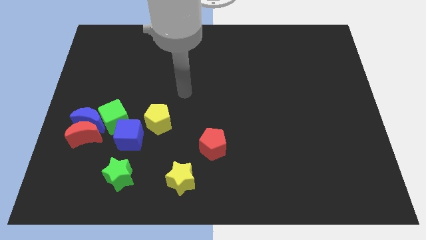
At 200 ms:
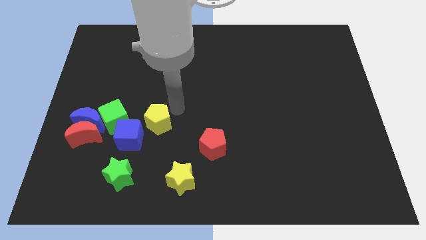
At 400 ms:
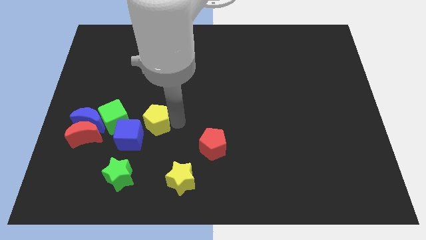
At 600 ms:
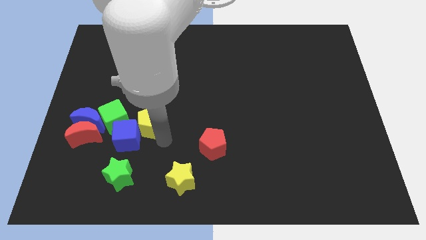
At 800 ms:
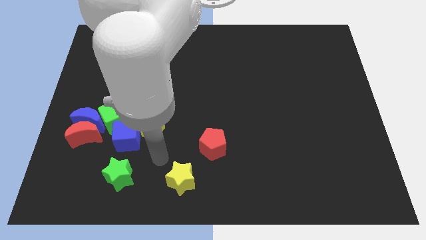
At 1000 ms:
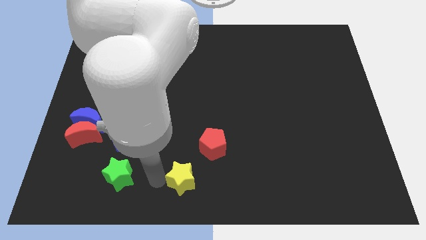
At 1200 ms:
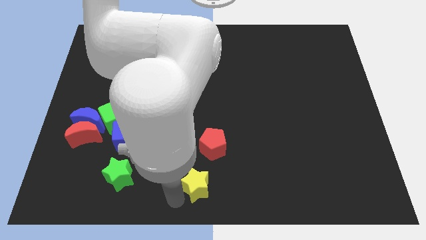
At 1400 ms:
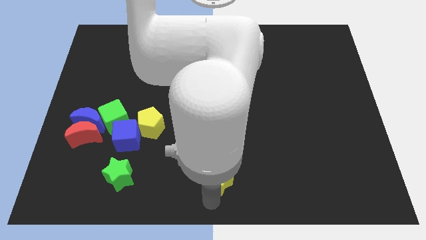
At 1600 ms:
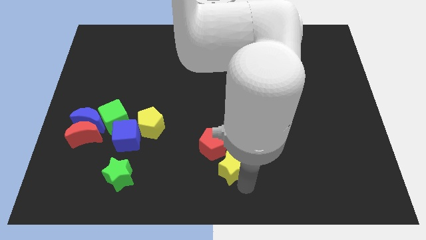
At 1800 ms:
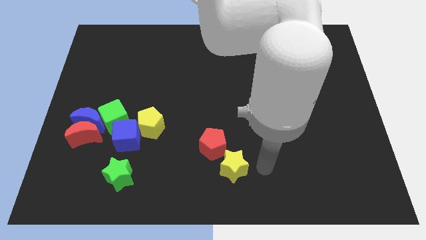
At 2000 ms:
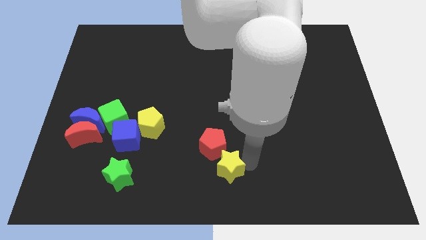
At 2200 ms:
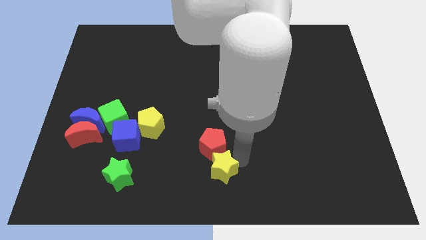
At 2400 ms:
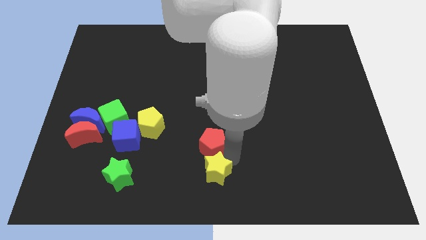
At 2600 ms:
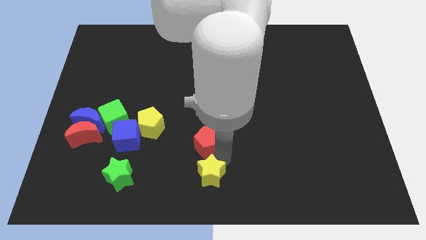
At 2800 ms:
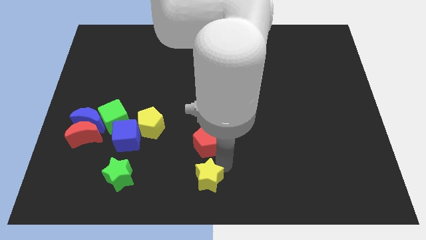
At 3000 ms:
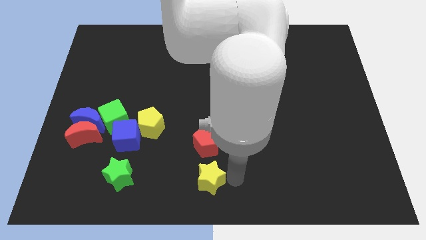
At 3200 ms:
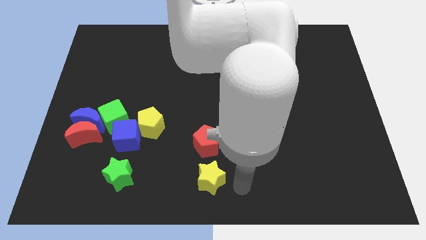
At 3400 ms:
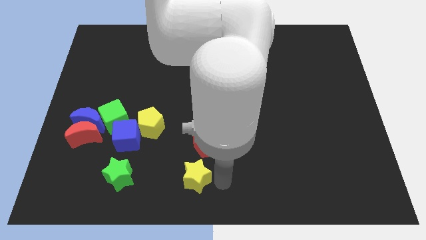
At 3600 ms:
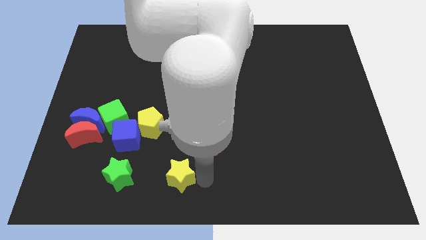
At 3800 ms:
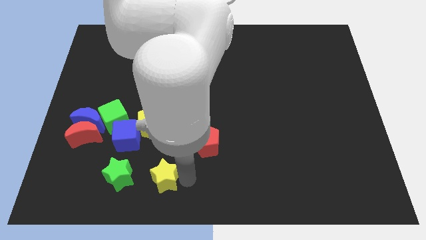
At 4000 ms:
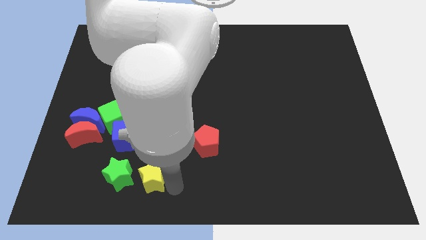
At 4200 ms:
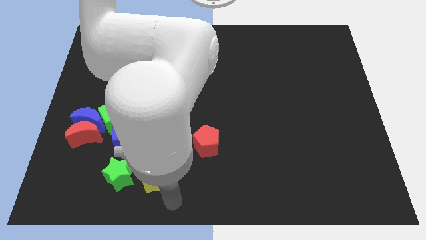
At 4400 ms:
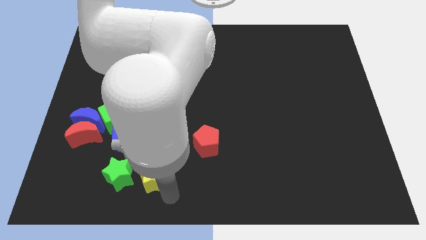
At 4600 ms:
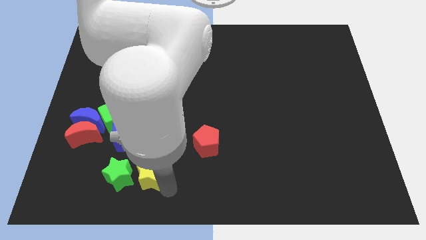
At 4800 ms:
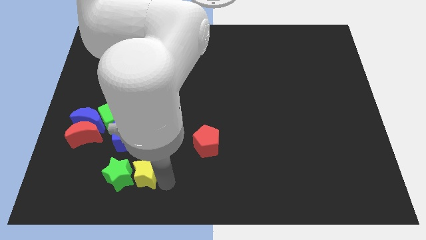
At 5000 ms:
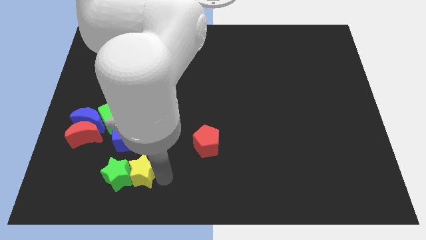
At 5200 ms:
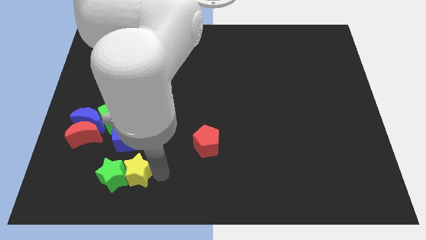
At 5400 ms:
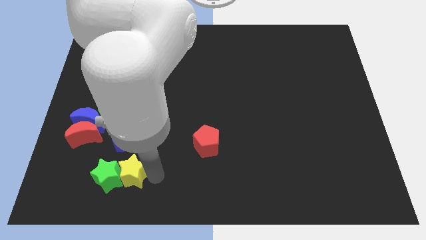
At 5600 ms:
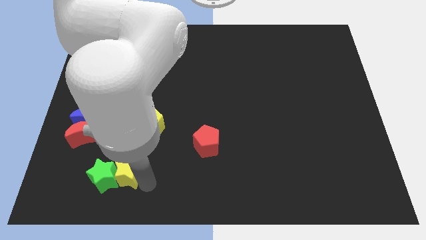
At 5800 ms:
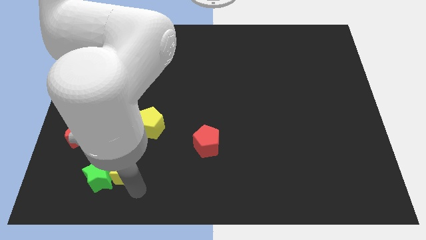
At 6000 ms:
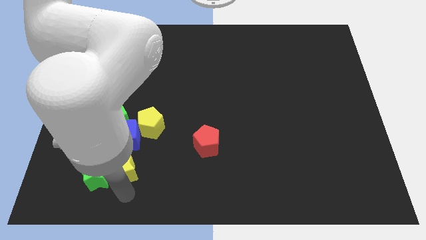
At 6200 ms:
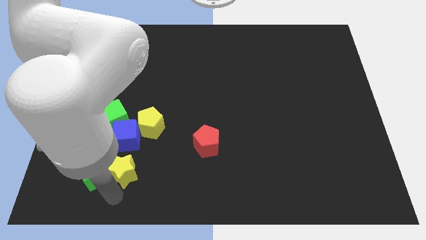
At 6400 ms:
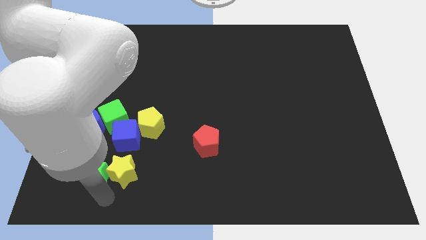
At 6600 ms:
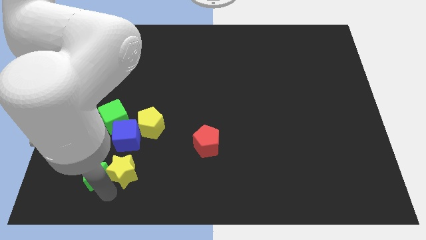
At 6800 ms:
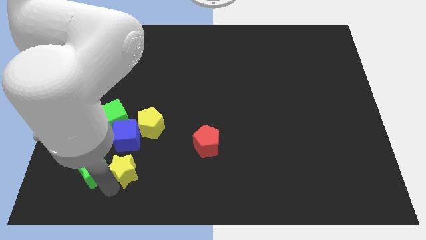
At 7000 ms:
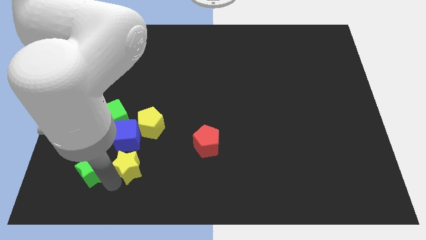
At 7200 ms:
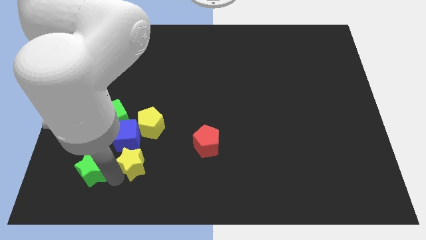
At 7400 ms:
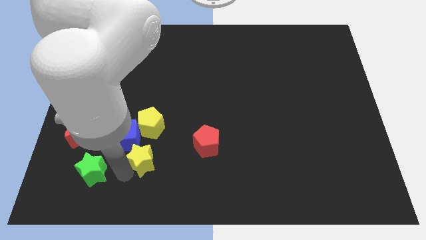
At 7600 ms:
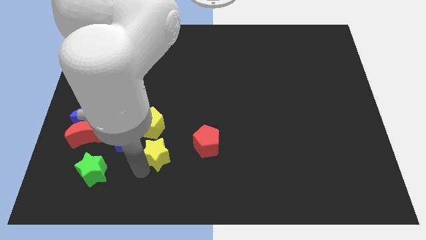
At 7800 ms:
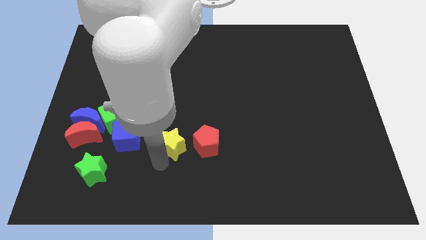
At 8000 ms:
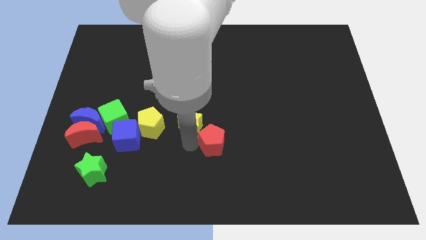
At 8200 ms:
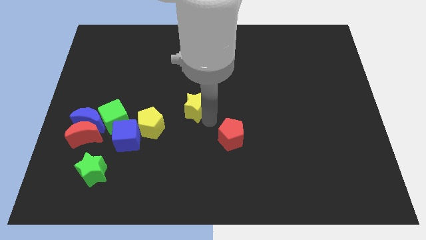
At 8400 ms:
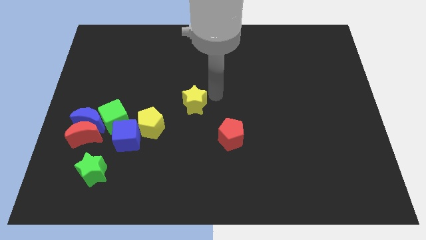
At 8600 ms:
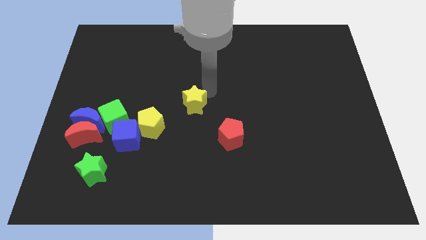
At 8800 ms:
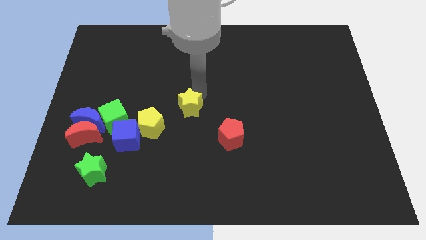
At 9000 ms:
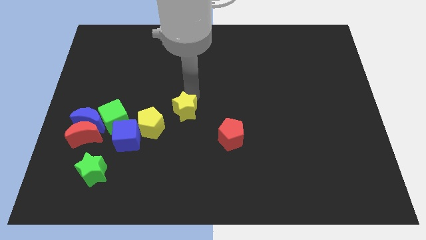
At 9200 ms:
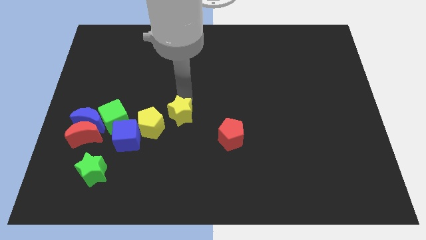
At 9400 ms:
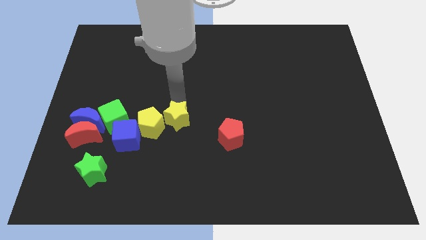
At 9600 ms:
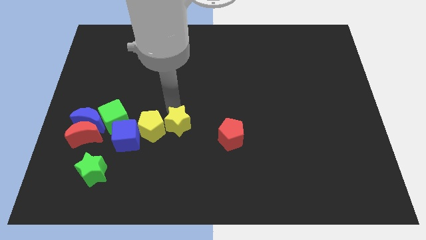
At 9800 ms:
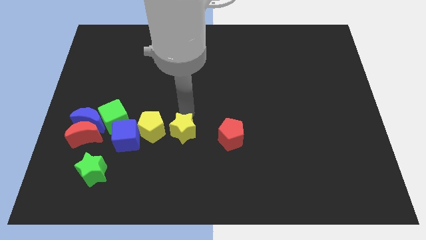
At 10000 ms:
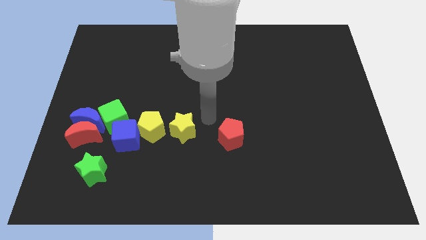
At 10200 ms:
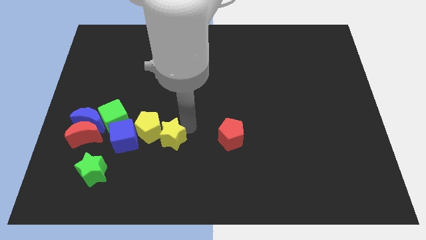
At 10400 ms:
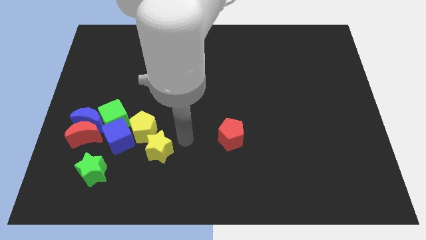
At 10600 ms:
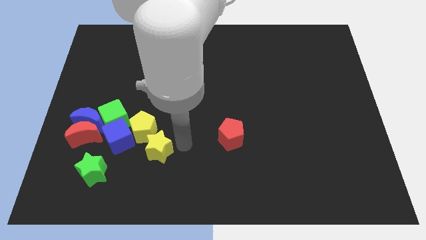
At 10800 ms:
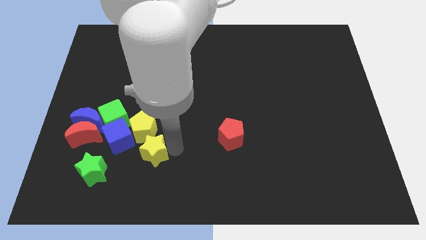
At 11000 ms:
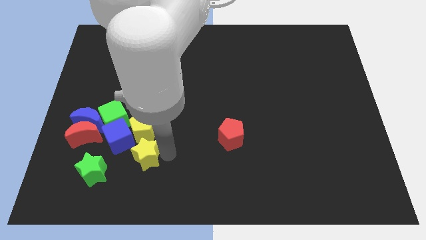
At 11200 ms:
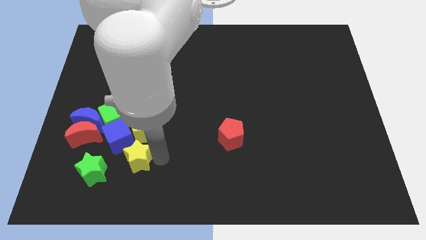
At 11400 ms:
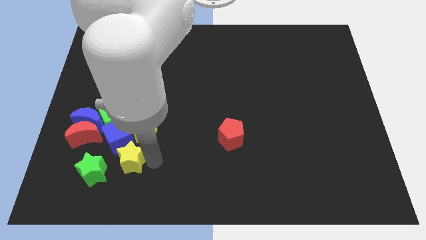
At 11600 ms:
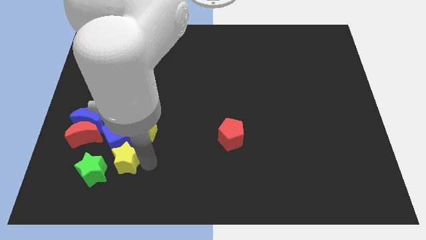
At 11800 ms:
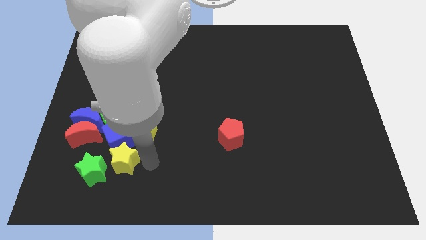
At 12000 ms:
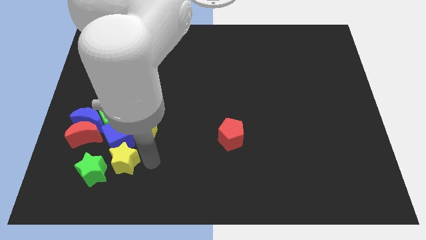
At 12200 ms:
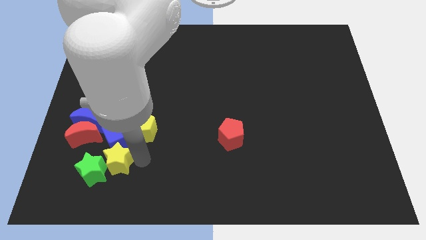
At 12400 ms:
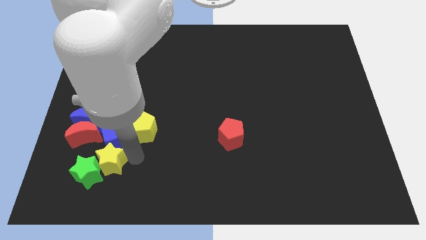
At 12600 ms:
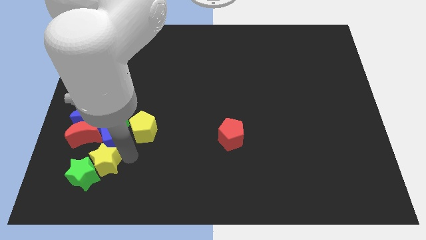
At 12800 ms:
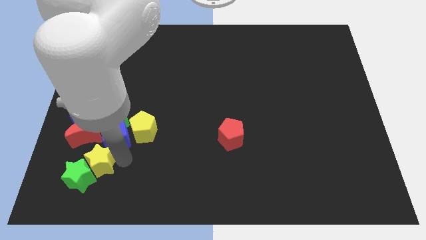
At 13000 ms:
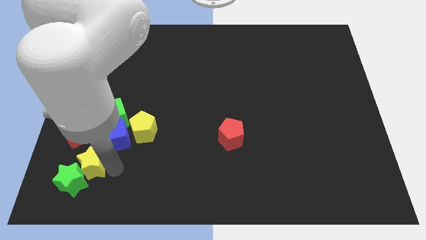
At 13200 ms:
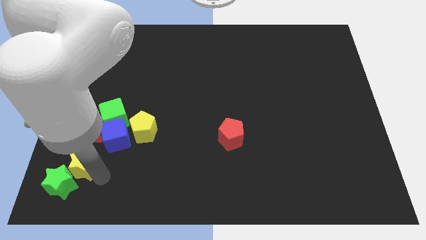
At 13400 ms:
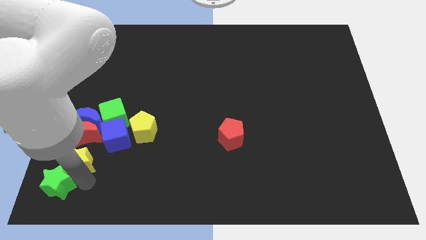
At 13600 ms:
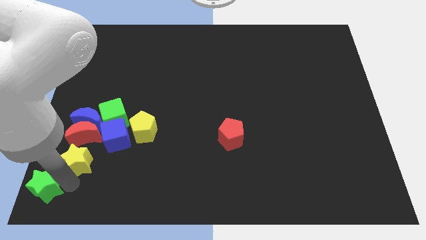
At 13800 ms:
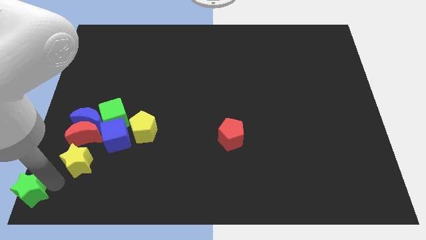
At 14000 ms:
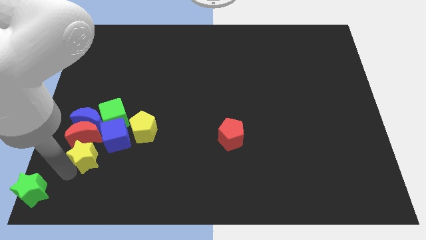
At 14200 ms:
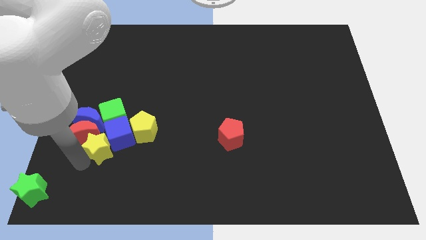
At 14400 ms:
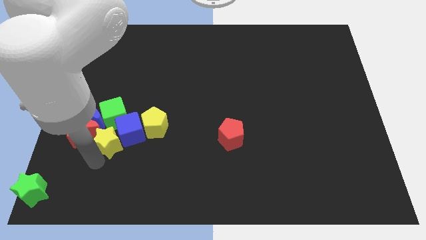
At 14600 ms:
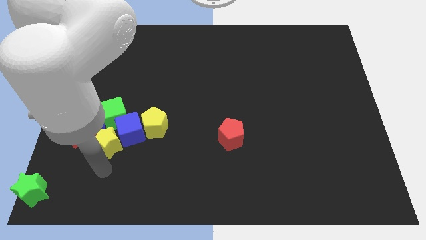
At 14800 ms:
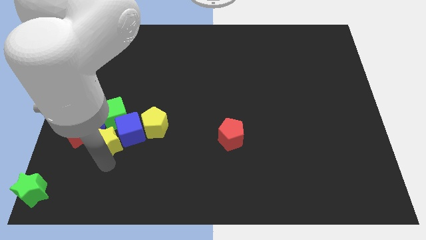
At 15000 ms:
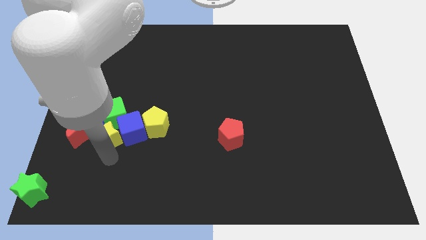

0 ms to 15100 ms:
put the yellow star towards the green cube

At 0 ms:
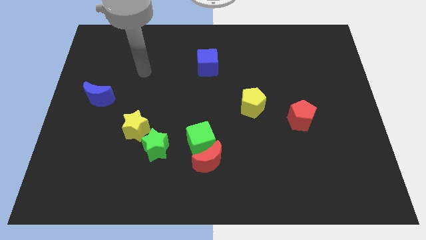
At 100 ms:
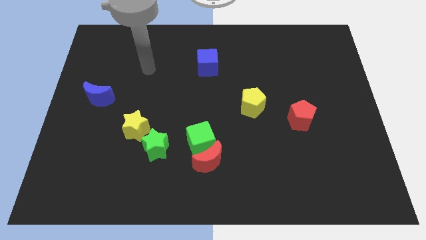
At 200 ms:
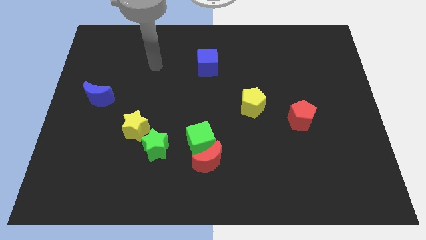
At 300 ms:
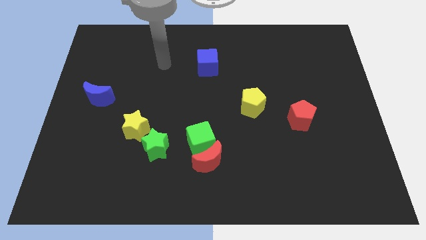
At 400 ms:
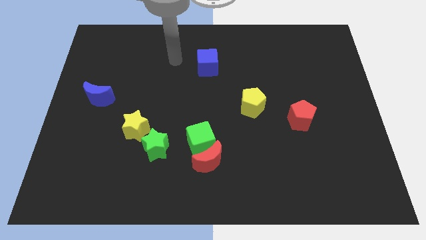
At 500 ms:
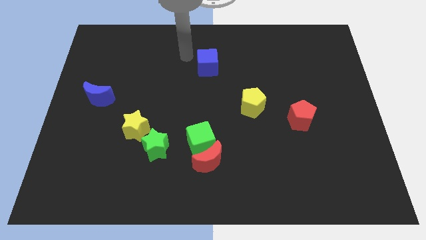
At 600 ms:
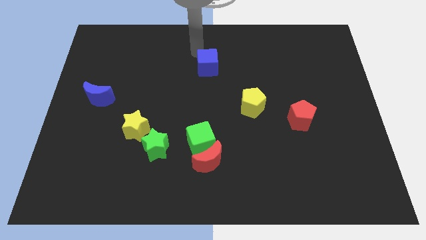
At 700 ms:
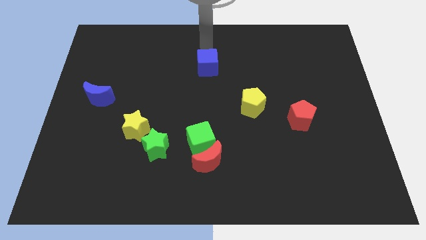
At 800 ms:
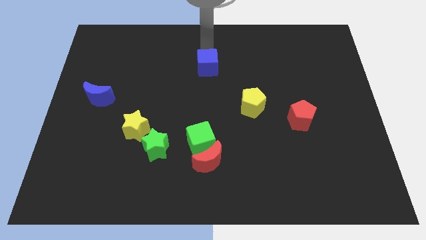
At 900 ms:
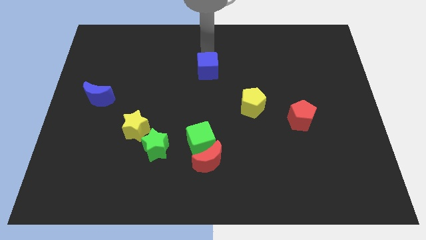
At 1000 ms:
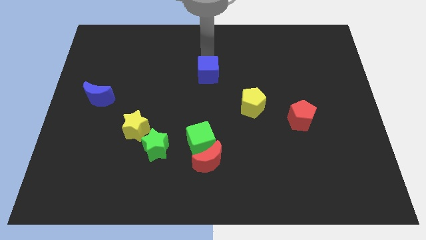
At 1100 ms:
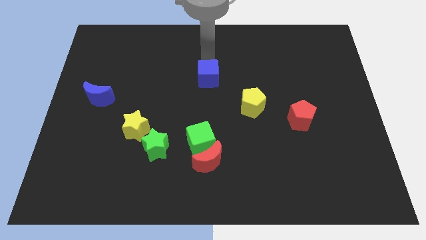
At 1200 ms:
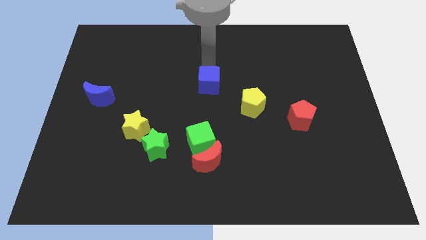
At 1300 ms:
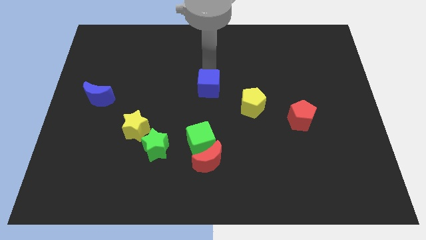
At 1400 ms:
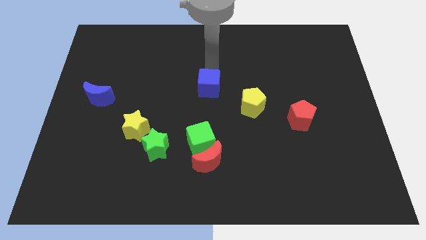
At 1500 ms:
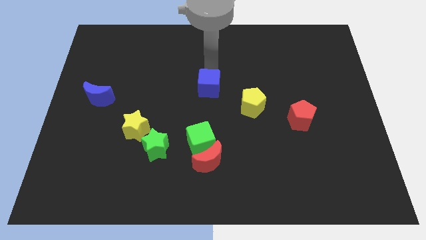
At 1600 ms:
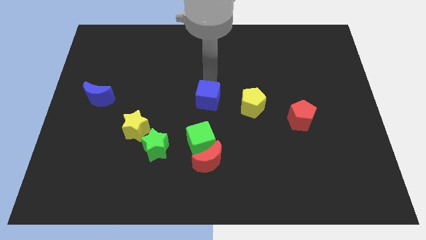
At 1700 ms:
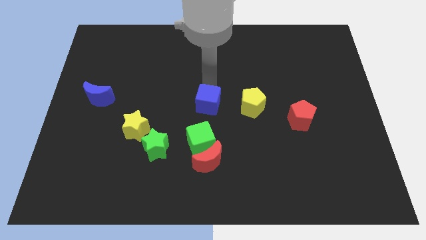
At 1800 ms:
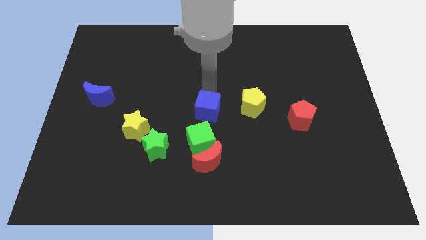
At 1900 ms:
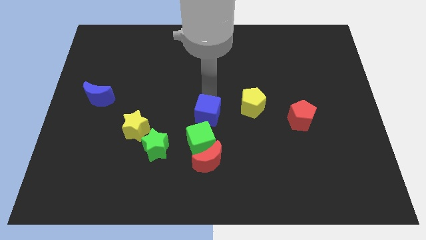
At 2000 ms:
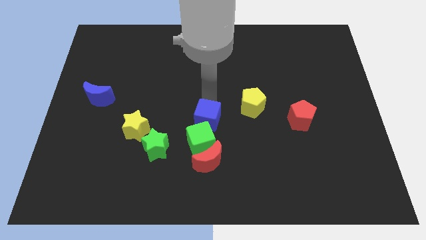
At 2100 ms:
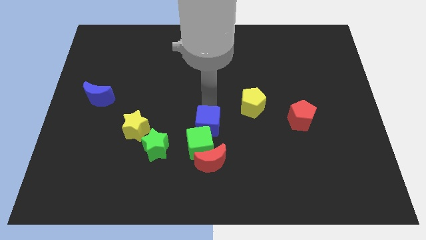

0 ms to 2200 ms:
move the blue cube close to the green cube
